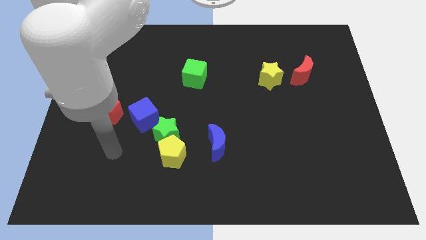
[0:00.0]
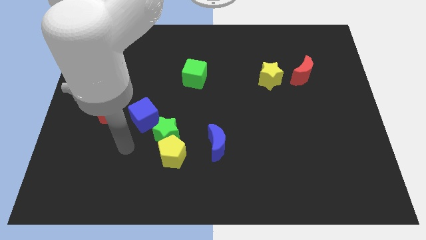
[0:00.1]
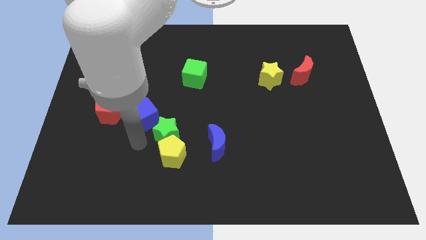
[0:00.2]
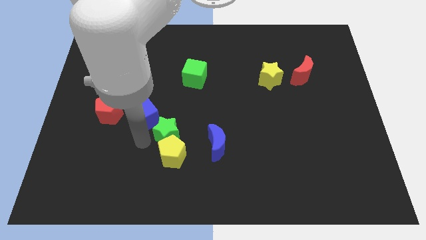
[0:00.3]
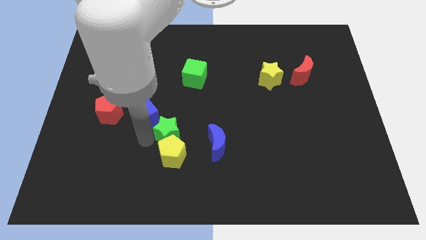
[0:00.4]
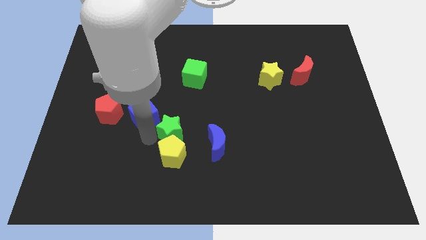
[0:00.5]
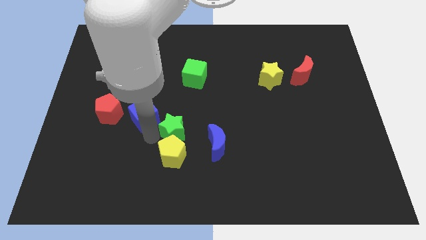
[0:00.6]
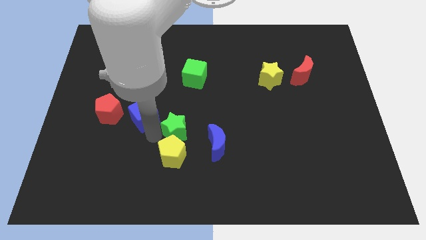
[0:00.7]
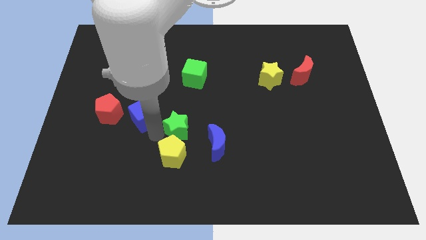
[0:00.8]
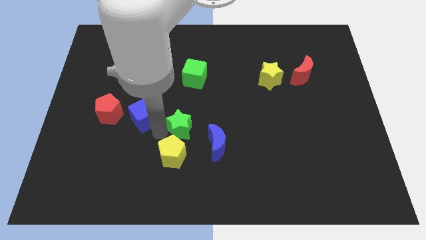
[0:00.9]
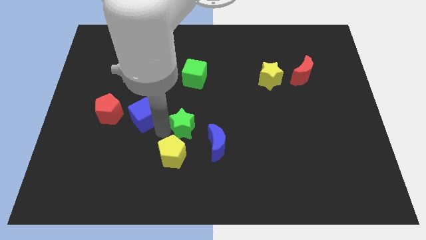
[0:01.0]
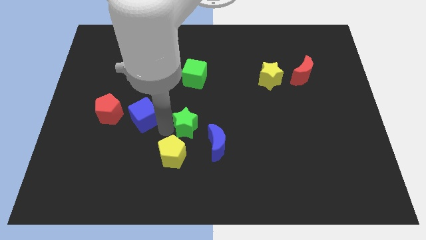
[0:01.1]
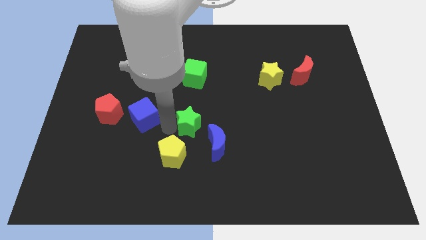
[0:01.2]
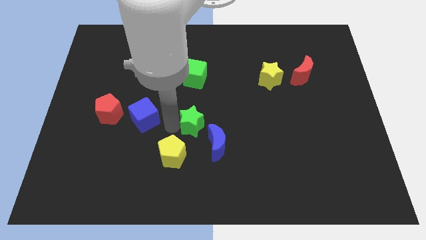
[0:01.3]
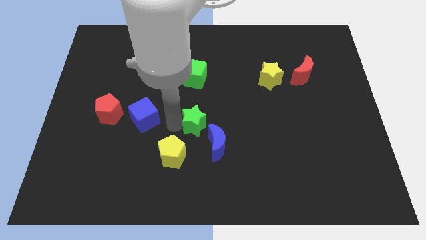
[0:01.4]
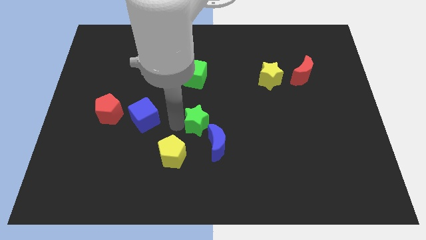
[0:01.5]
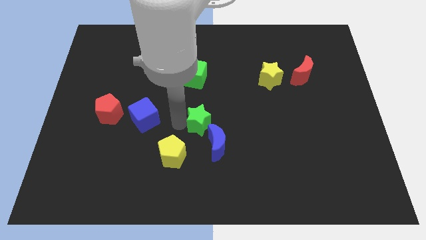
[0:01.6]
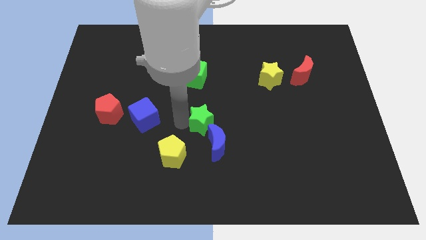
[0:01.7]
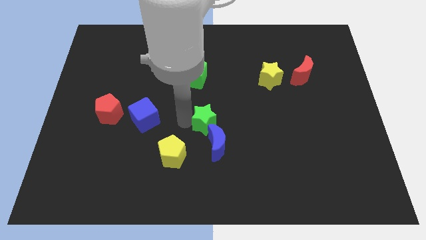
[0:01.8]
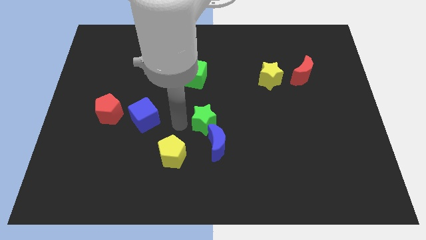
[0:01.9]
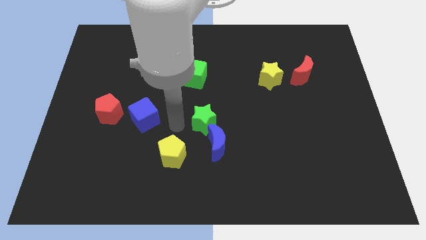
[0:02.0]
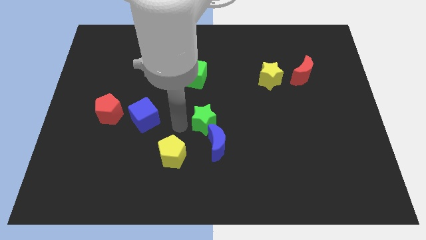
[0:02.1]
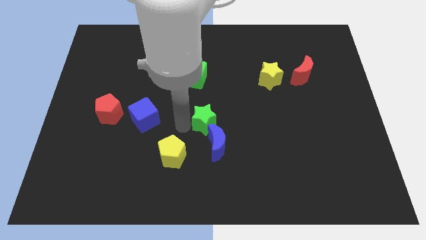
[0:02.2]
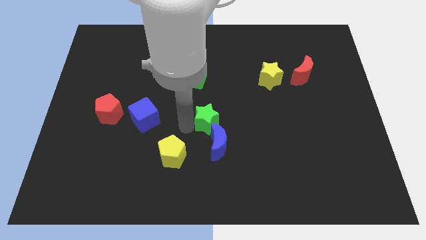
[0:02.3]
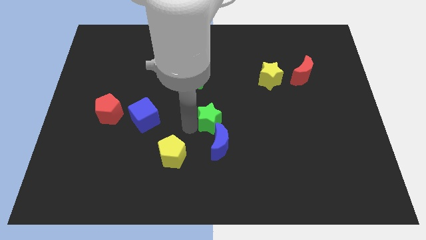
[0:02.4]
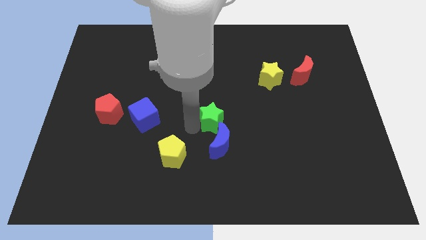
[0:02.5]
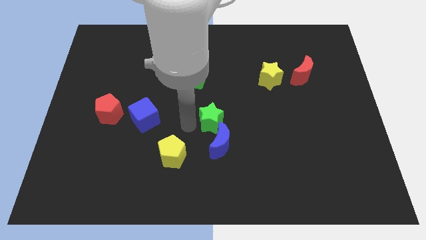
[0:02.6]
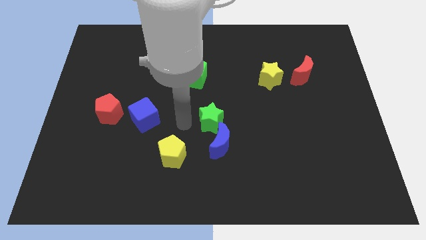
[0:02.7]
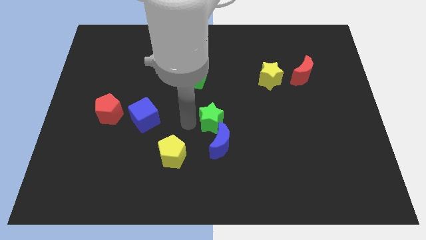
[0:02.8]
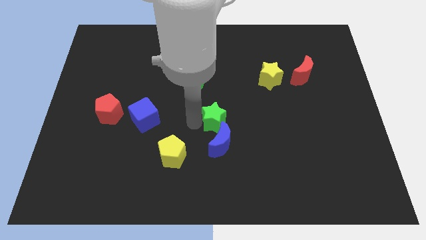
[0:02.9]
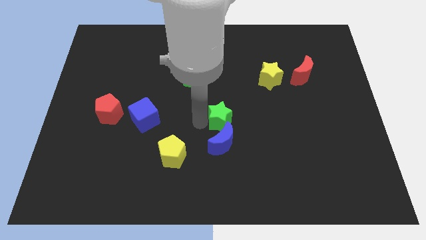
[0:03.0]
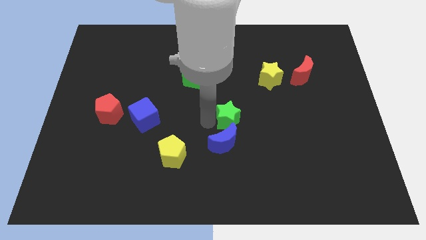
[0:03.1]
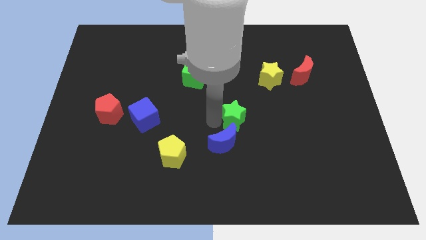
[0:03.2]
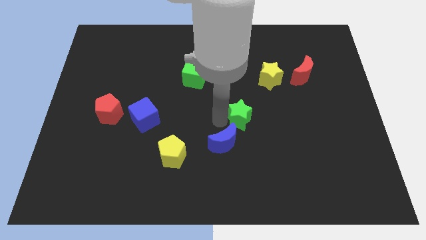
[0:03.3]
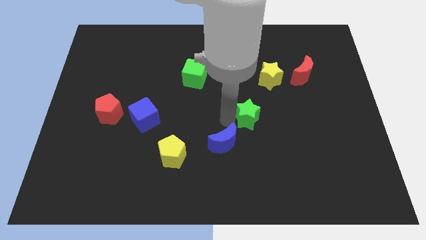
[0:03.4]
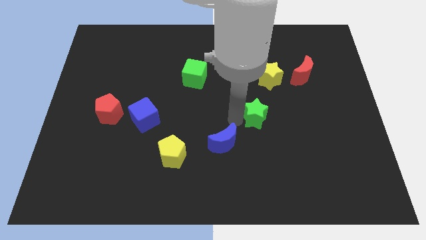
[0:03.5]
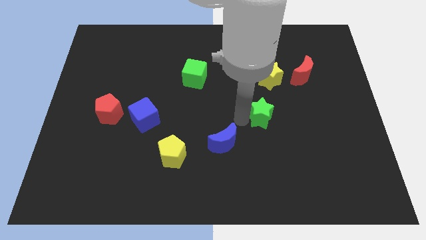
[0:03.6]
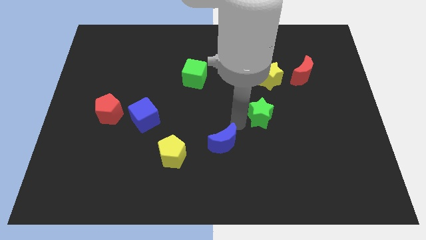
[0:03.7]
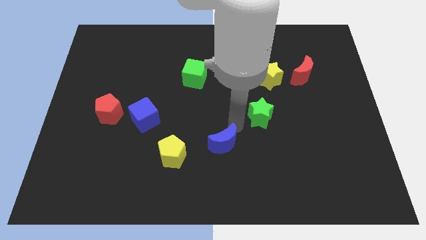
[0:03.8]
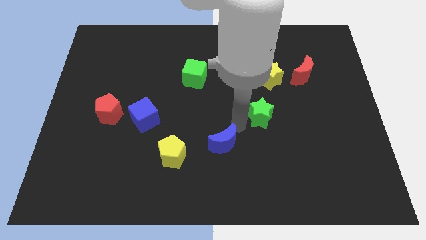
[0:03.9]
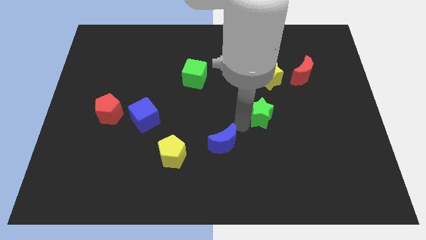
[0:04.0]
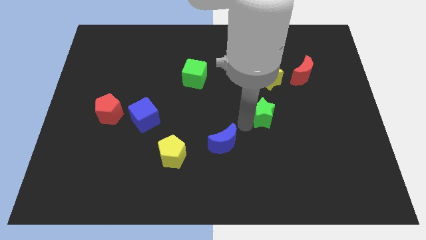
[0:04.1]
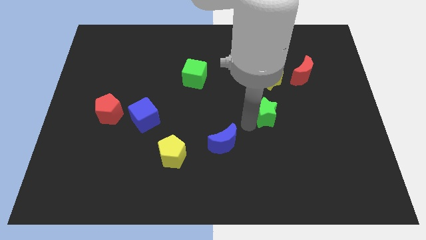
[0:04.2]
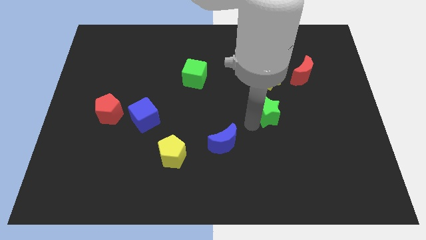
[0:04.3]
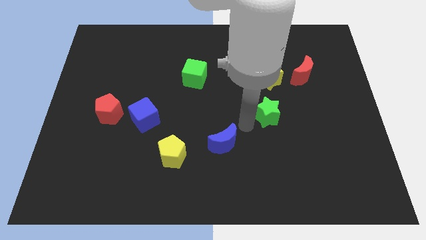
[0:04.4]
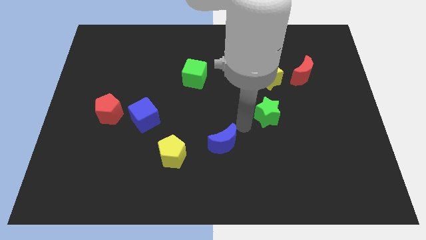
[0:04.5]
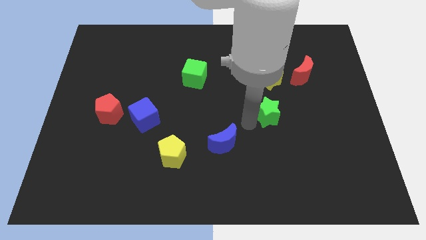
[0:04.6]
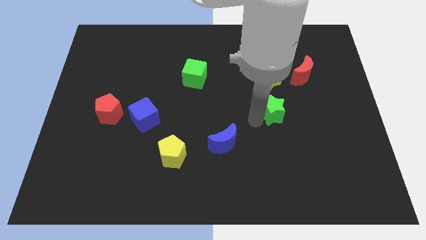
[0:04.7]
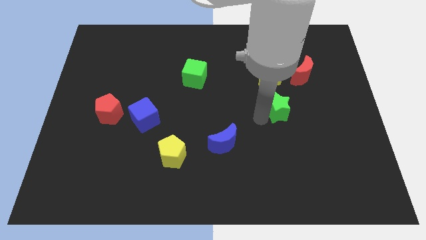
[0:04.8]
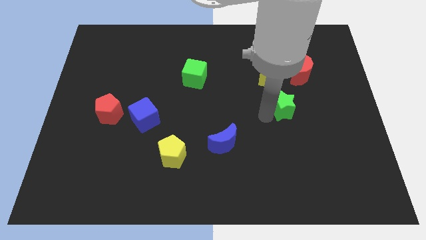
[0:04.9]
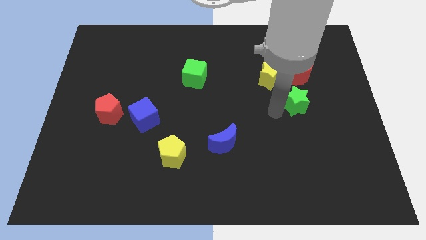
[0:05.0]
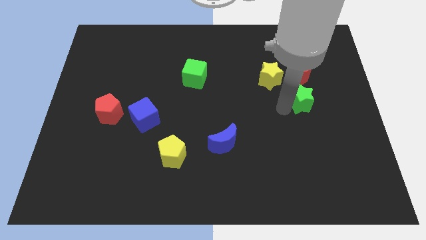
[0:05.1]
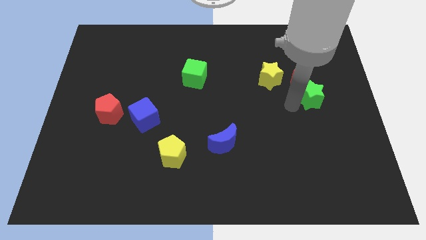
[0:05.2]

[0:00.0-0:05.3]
push the green star to the bottom right side of the red moon

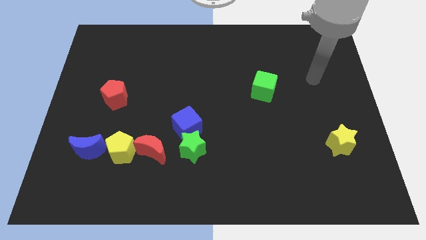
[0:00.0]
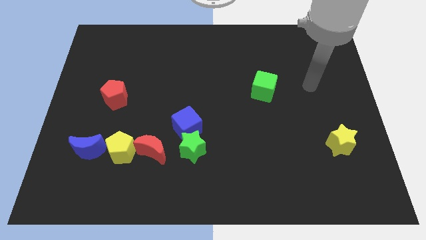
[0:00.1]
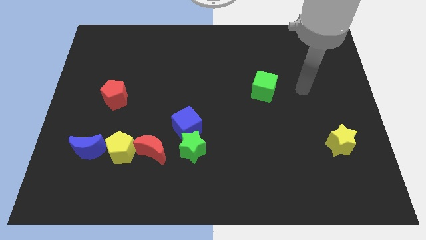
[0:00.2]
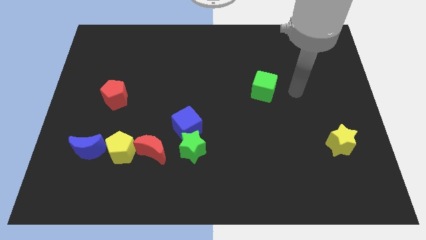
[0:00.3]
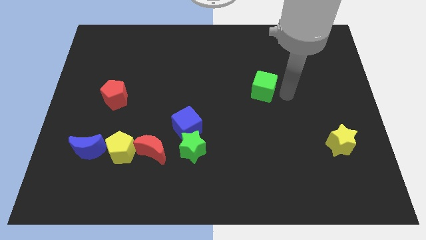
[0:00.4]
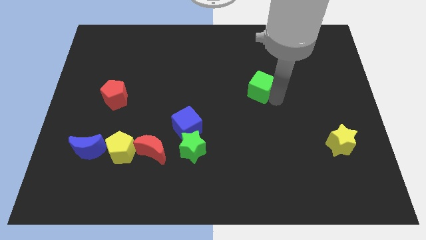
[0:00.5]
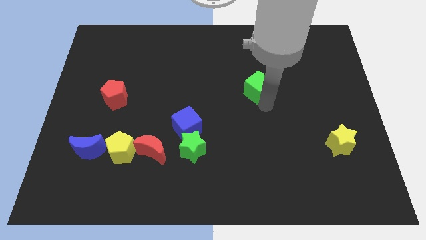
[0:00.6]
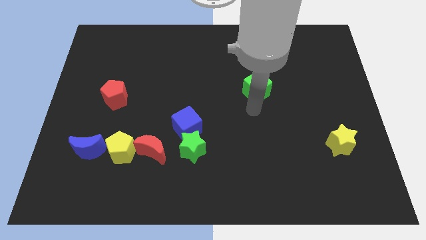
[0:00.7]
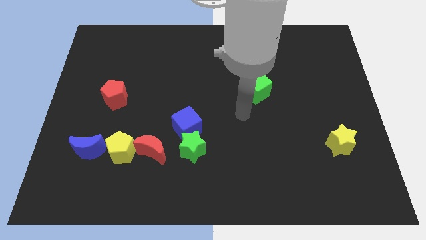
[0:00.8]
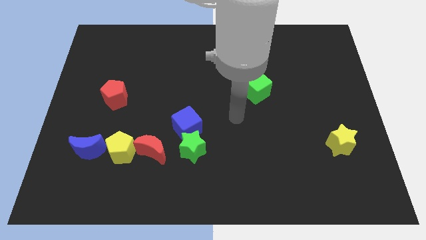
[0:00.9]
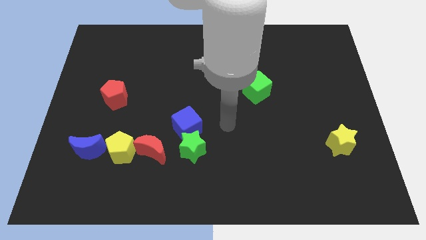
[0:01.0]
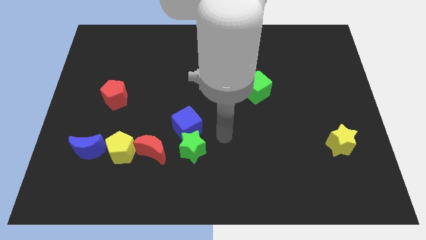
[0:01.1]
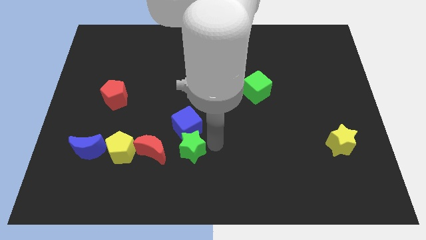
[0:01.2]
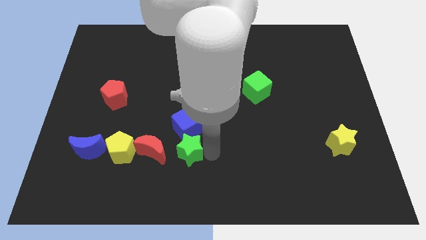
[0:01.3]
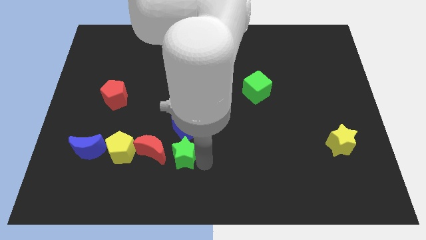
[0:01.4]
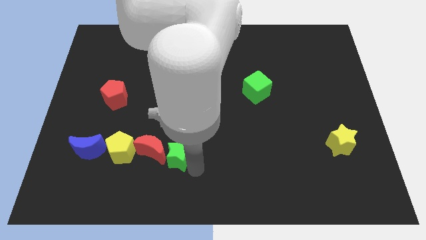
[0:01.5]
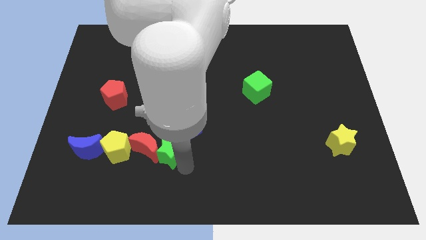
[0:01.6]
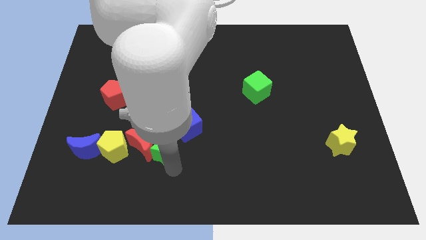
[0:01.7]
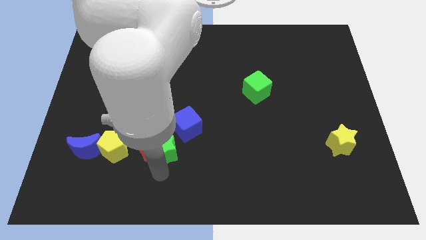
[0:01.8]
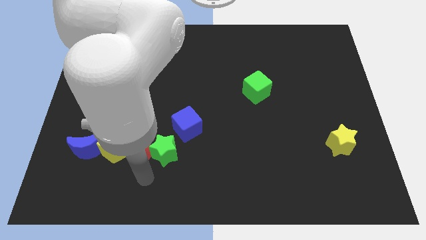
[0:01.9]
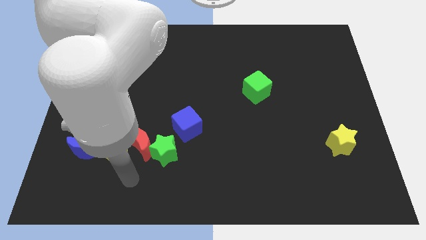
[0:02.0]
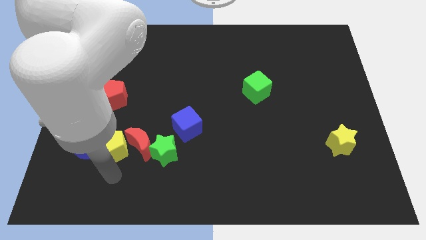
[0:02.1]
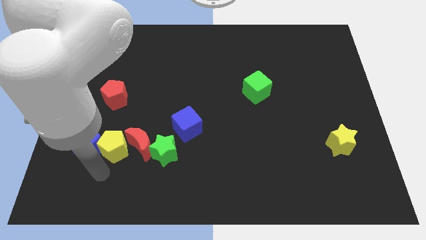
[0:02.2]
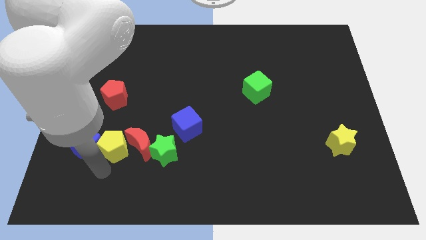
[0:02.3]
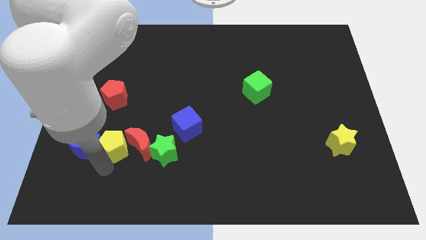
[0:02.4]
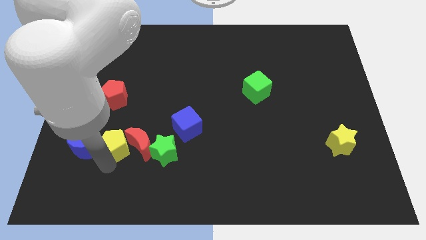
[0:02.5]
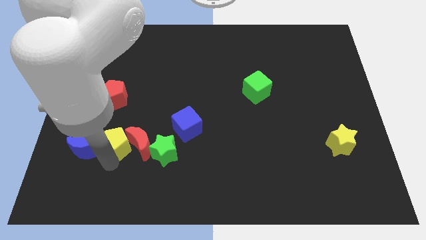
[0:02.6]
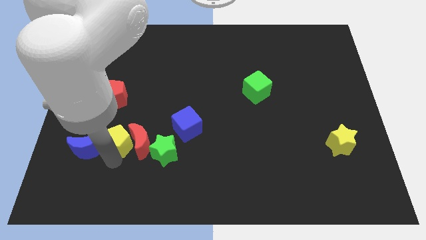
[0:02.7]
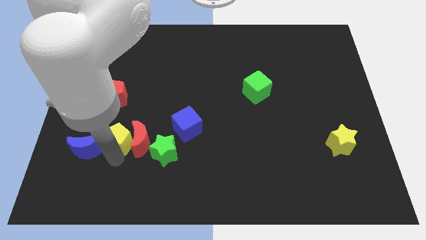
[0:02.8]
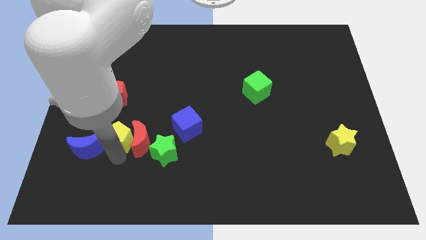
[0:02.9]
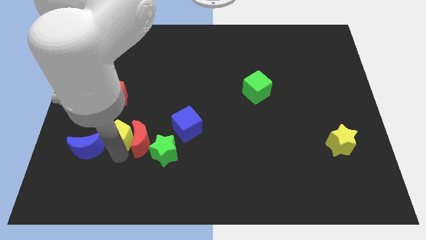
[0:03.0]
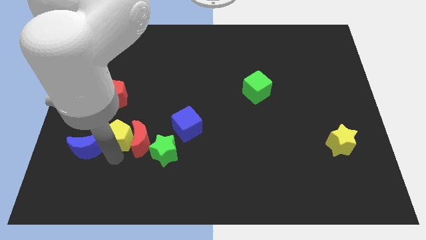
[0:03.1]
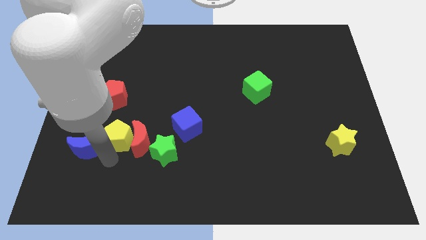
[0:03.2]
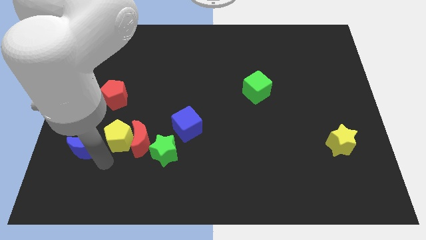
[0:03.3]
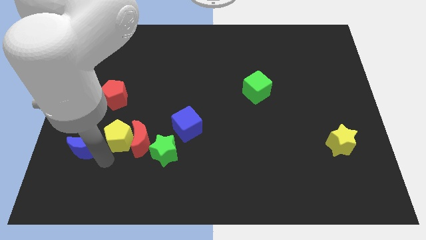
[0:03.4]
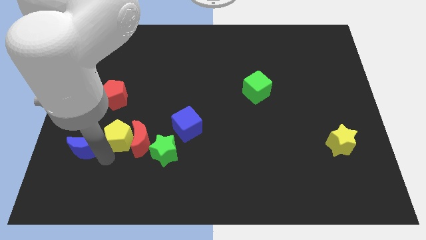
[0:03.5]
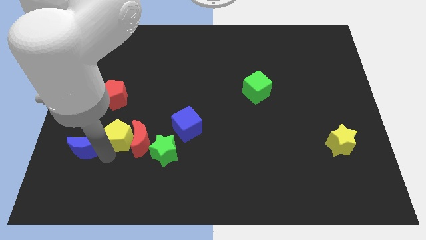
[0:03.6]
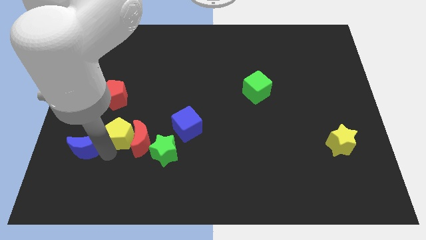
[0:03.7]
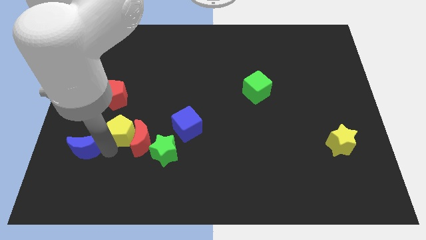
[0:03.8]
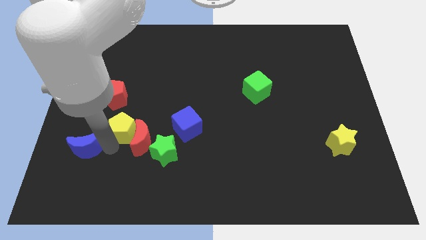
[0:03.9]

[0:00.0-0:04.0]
put the yellow pentagon to the bottom right of the red pentagon
